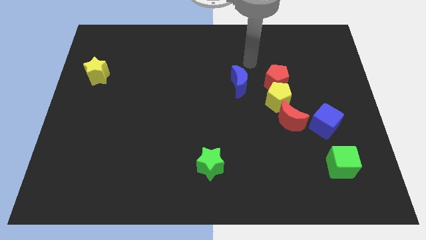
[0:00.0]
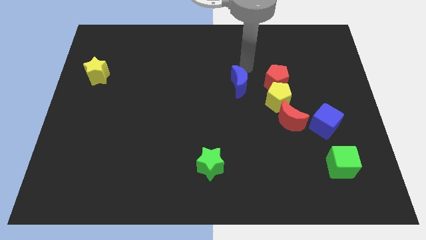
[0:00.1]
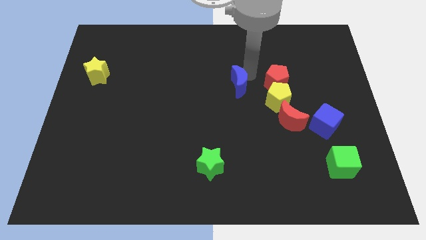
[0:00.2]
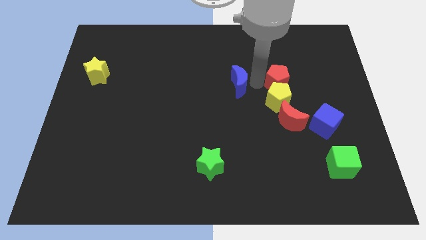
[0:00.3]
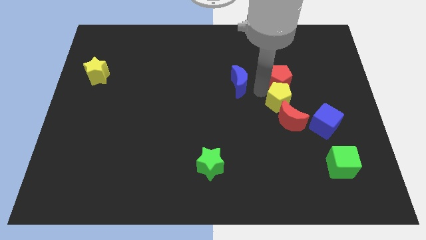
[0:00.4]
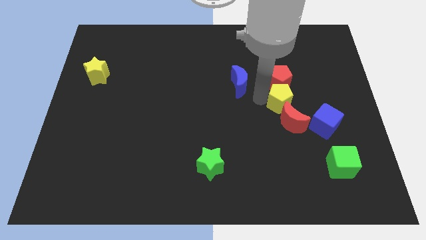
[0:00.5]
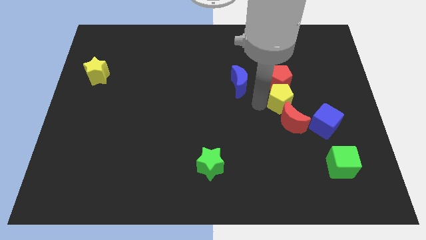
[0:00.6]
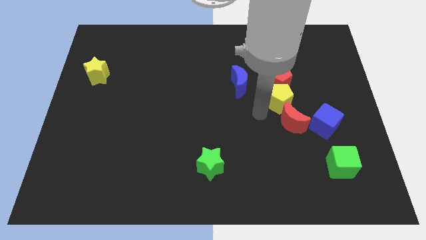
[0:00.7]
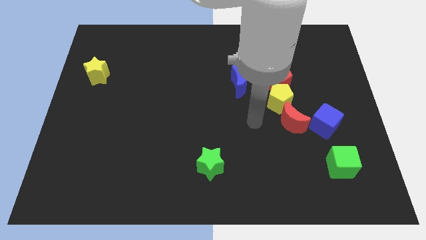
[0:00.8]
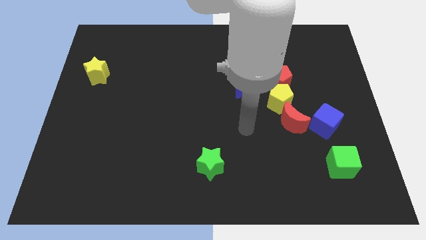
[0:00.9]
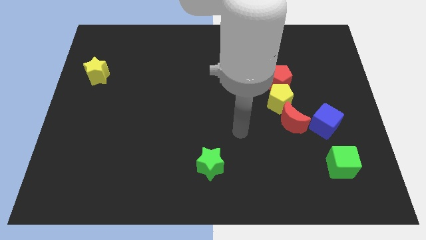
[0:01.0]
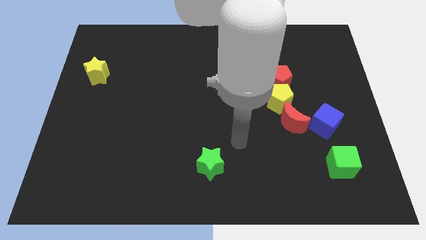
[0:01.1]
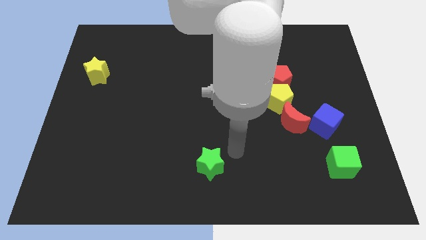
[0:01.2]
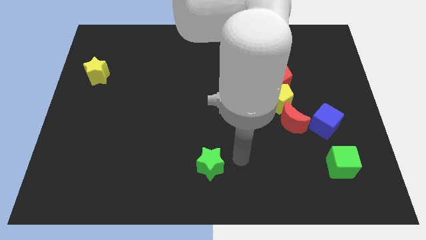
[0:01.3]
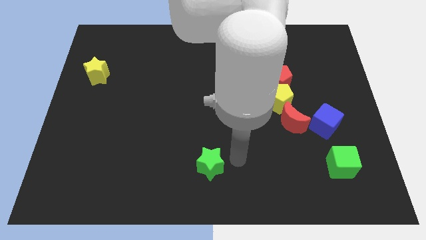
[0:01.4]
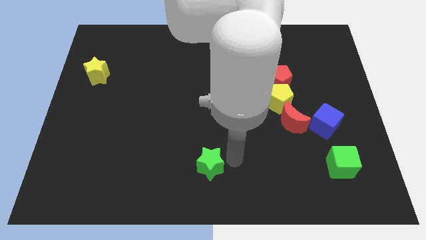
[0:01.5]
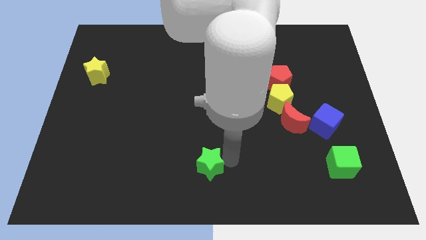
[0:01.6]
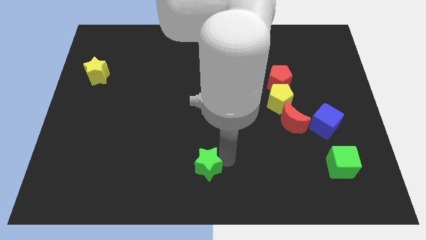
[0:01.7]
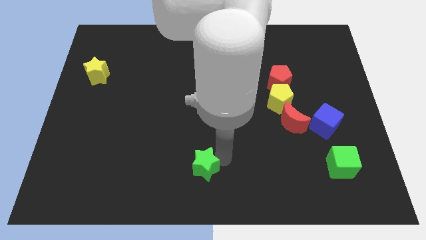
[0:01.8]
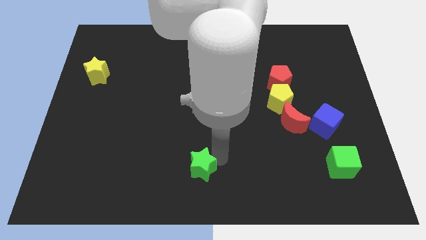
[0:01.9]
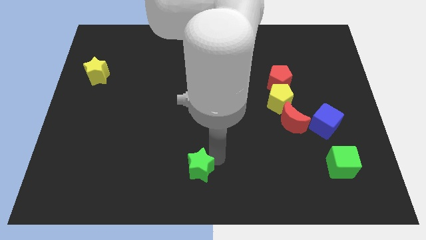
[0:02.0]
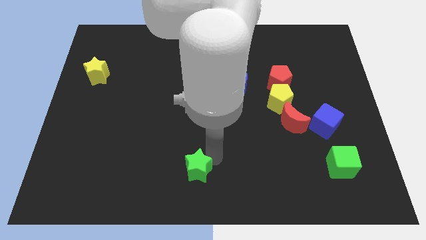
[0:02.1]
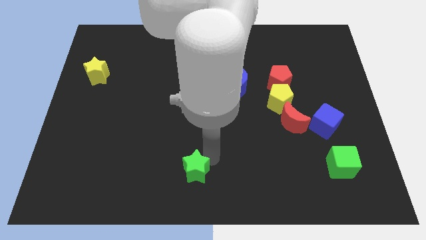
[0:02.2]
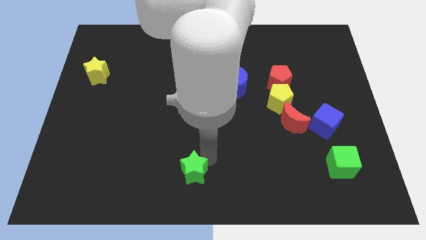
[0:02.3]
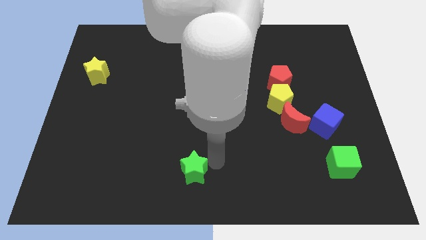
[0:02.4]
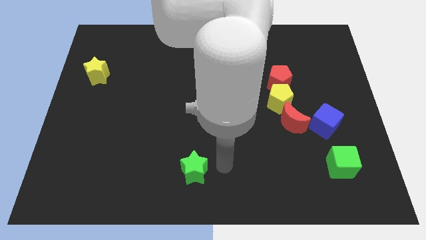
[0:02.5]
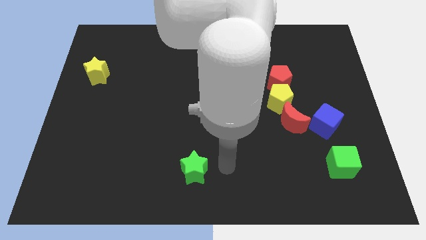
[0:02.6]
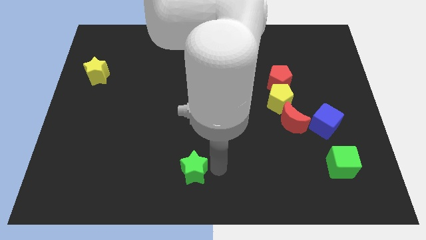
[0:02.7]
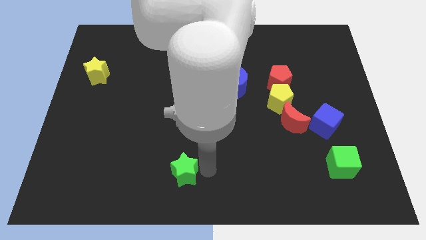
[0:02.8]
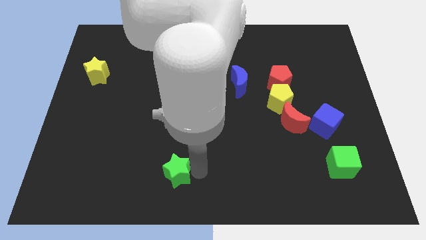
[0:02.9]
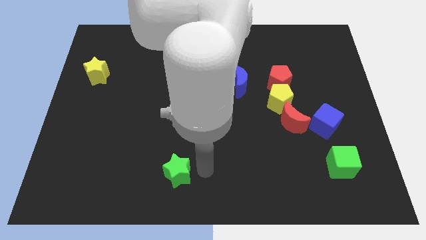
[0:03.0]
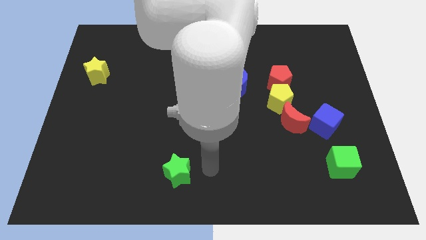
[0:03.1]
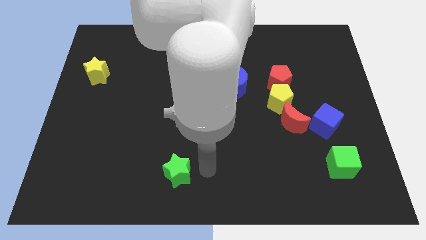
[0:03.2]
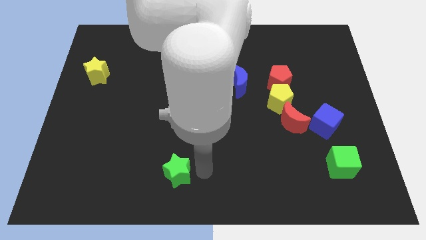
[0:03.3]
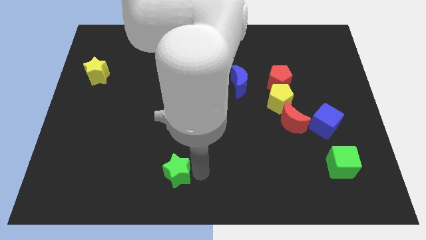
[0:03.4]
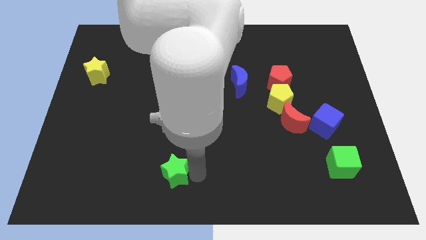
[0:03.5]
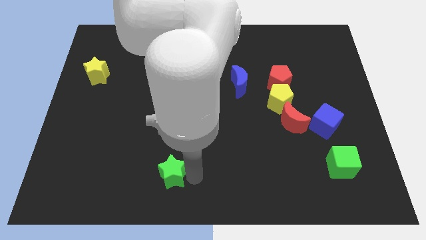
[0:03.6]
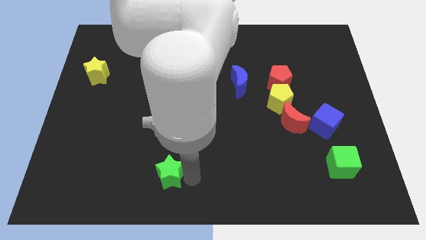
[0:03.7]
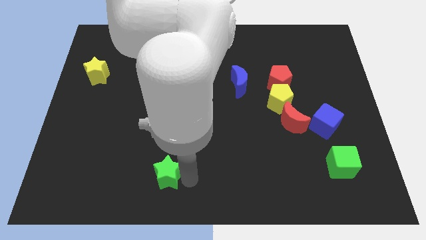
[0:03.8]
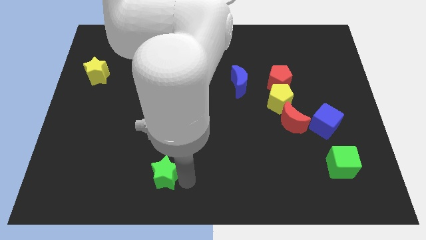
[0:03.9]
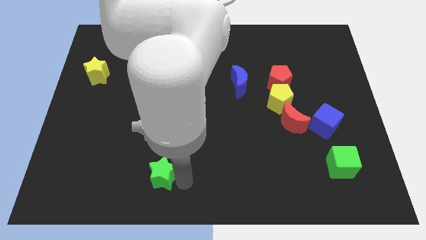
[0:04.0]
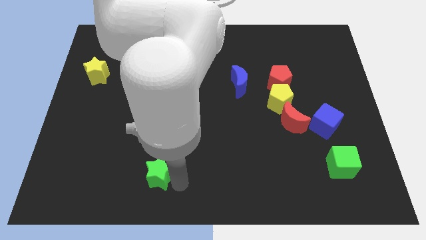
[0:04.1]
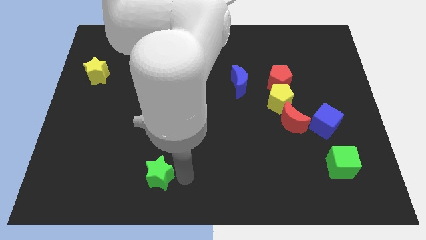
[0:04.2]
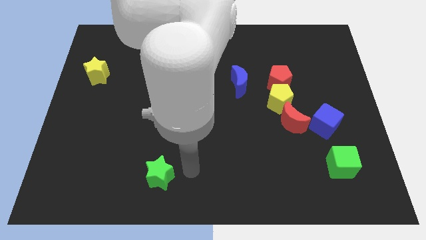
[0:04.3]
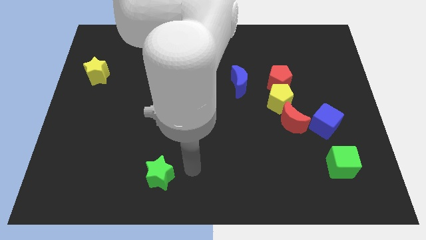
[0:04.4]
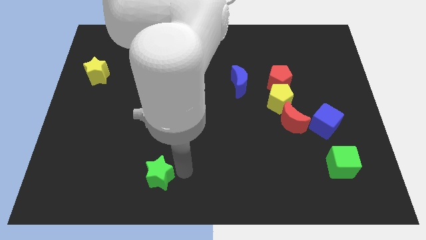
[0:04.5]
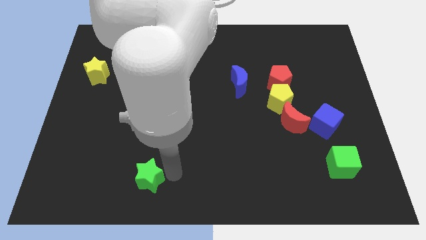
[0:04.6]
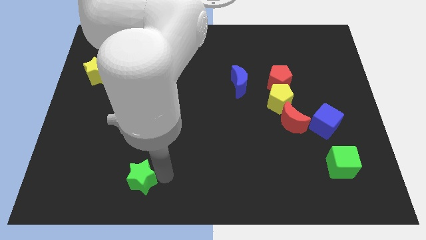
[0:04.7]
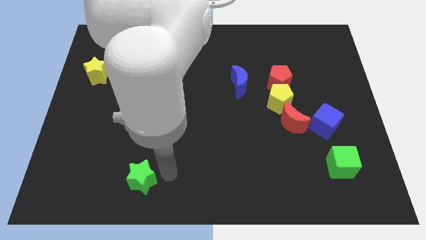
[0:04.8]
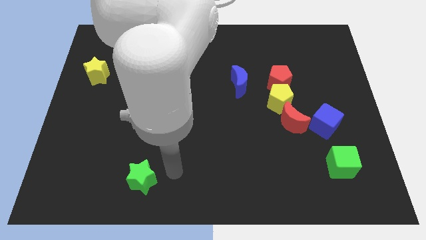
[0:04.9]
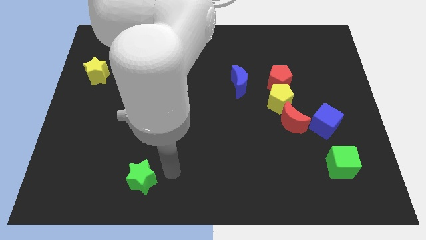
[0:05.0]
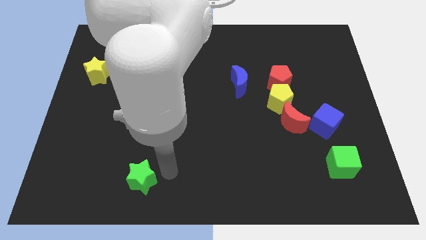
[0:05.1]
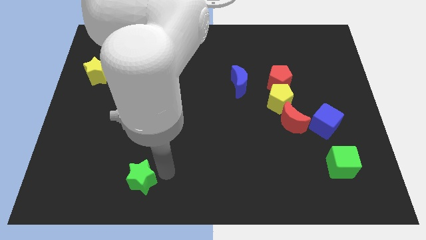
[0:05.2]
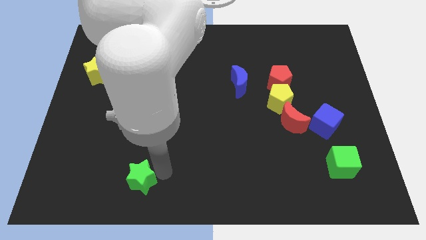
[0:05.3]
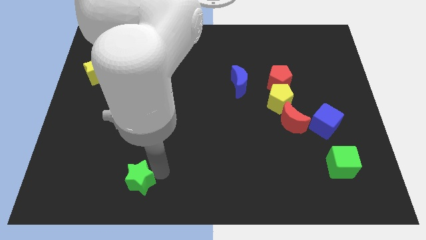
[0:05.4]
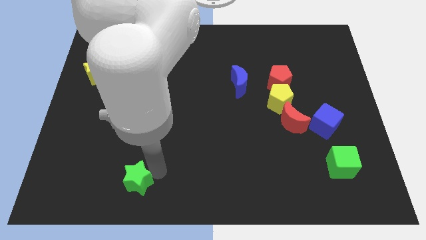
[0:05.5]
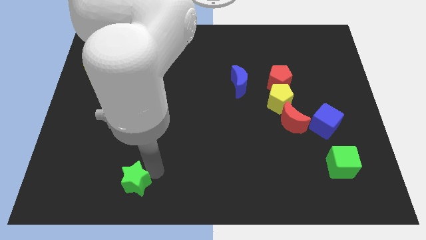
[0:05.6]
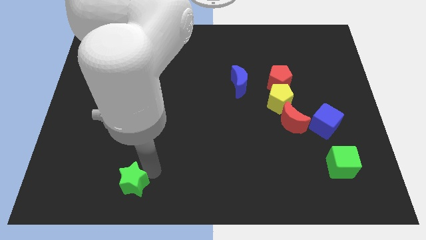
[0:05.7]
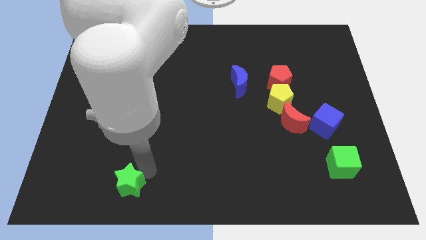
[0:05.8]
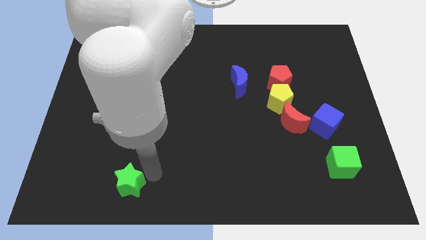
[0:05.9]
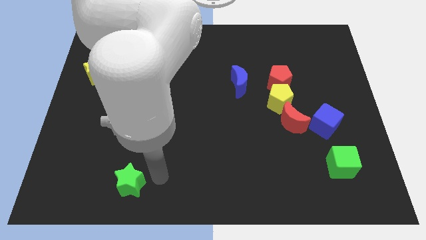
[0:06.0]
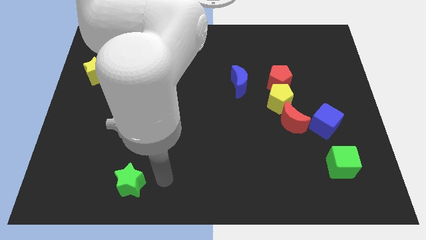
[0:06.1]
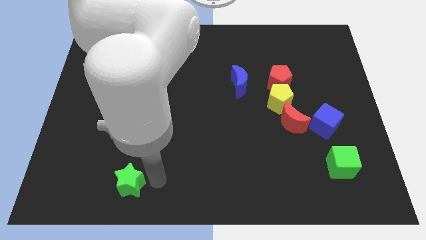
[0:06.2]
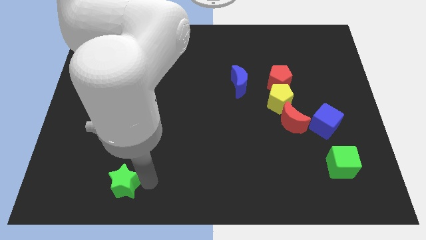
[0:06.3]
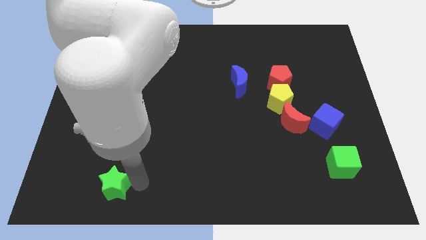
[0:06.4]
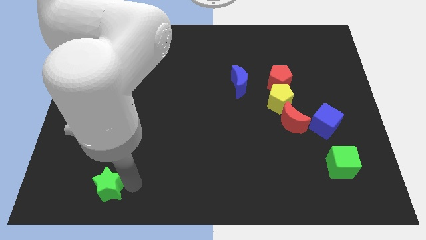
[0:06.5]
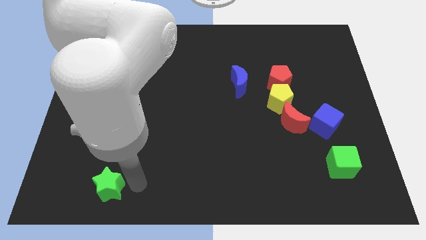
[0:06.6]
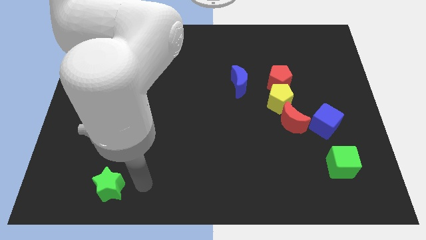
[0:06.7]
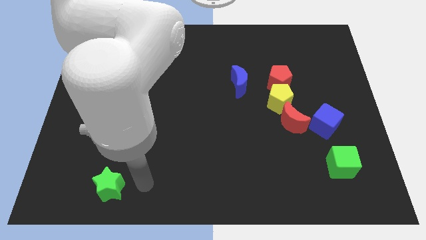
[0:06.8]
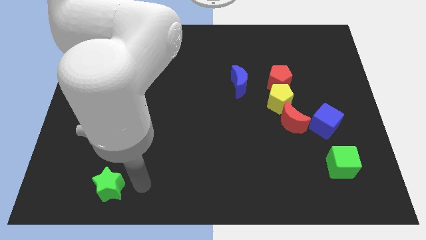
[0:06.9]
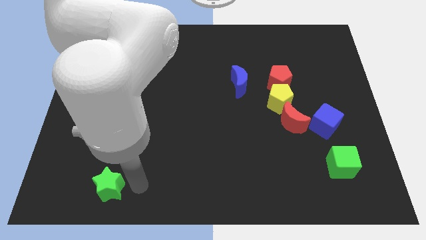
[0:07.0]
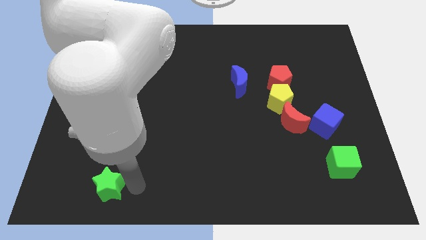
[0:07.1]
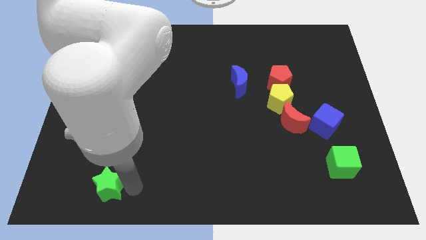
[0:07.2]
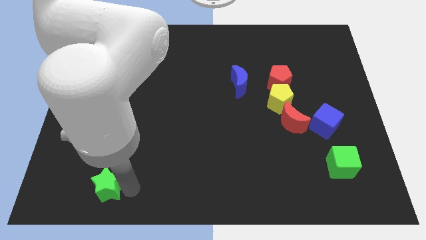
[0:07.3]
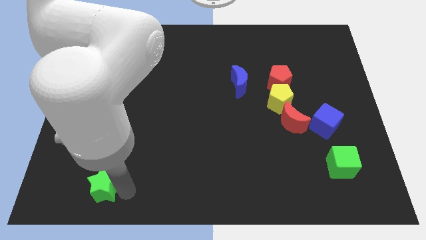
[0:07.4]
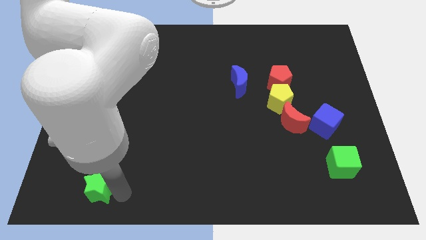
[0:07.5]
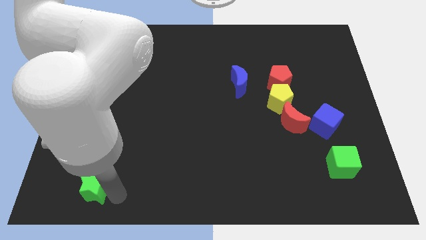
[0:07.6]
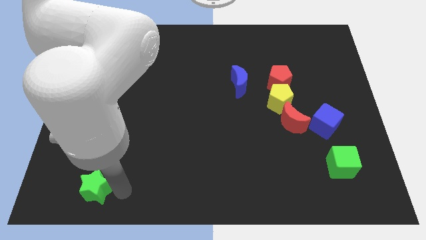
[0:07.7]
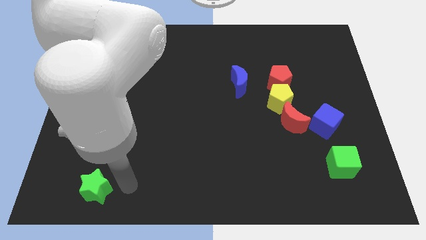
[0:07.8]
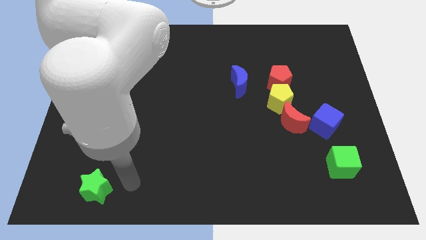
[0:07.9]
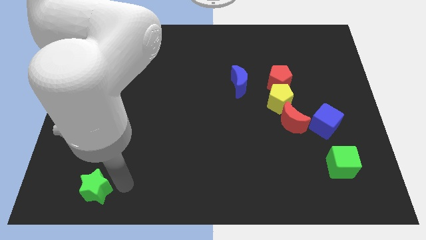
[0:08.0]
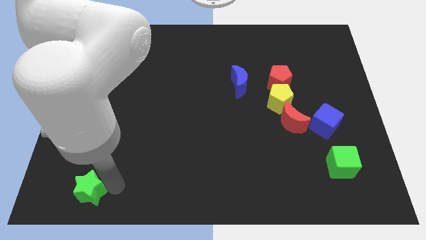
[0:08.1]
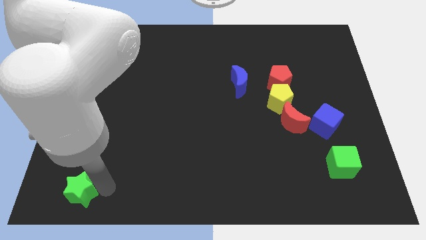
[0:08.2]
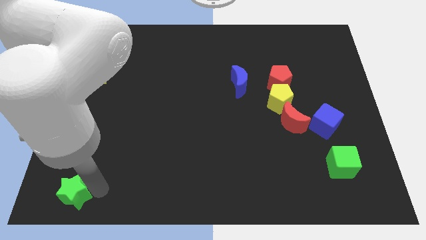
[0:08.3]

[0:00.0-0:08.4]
put the green star to the bottom left of the board
